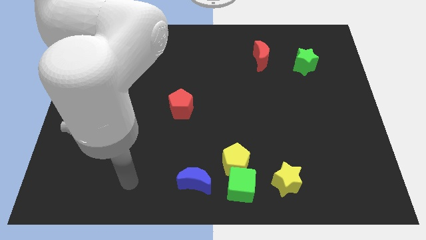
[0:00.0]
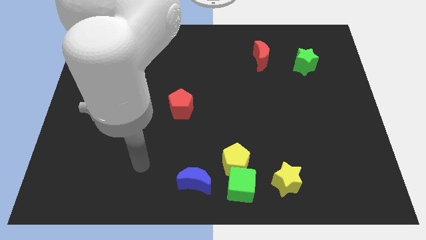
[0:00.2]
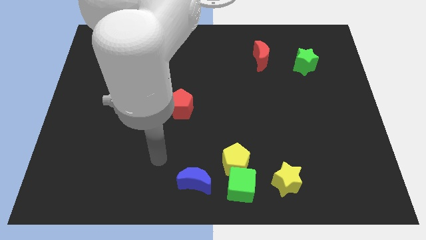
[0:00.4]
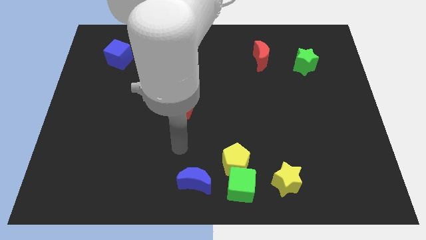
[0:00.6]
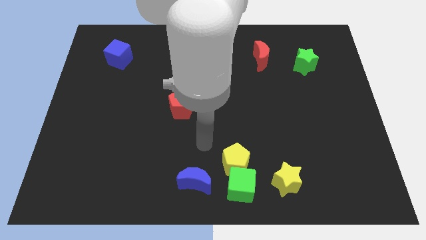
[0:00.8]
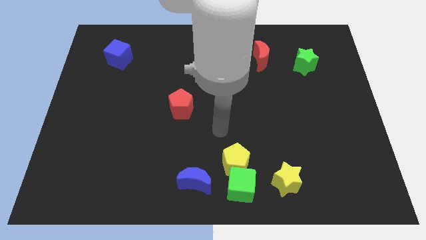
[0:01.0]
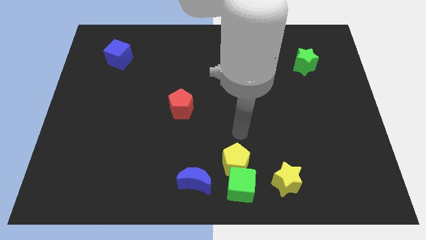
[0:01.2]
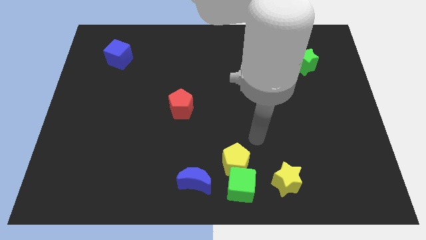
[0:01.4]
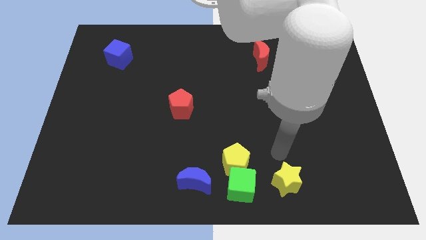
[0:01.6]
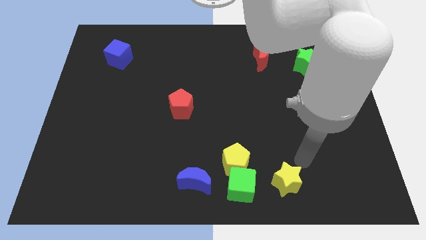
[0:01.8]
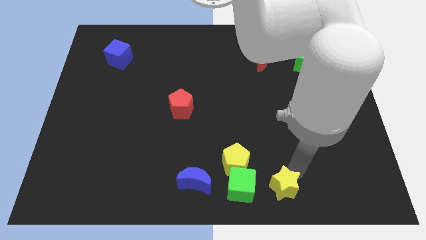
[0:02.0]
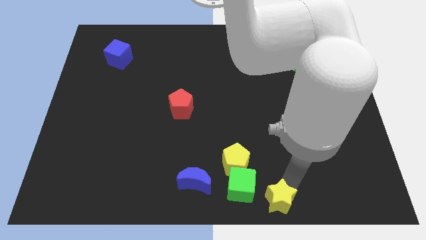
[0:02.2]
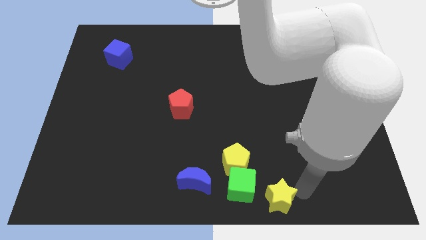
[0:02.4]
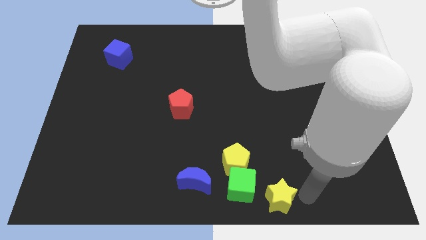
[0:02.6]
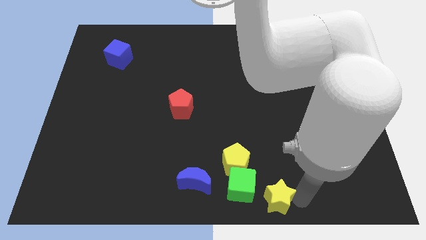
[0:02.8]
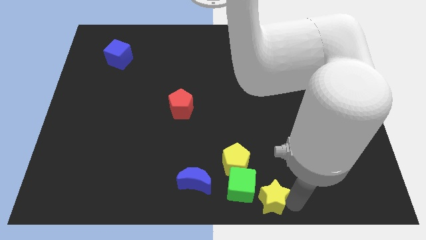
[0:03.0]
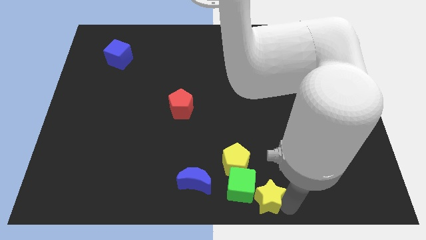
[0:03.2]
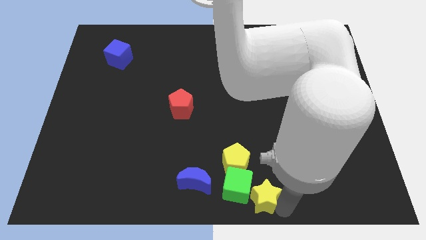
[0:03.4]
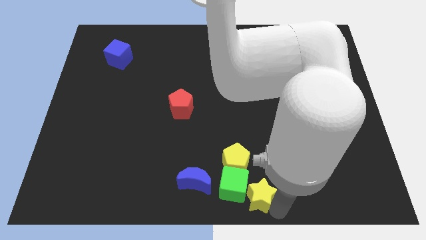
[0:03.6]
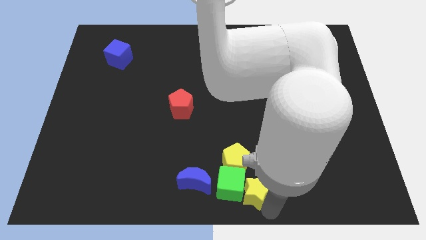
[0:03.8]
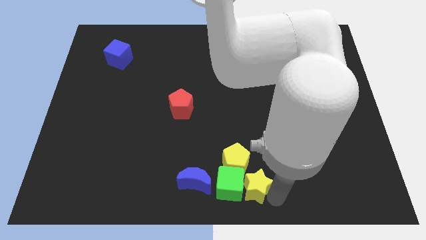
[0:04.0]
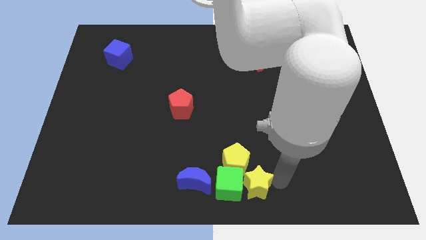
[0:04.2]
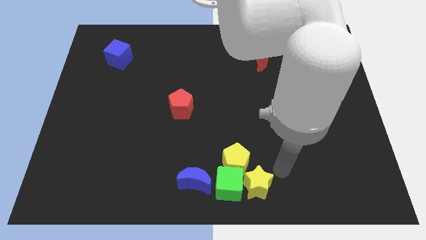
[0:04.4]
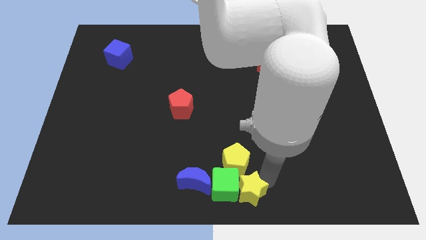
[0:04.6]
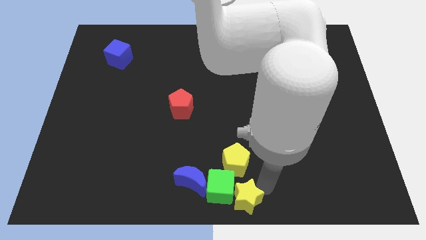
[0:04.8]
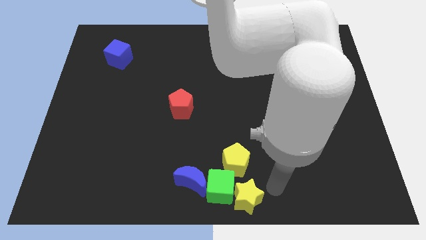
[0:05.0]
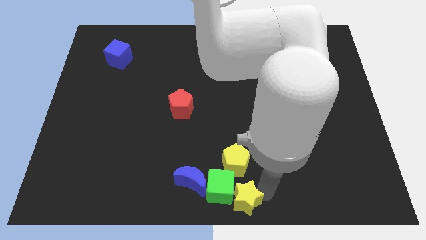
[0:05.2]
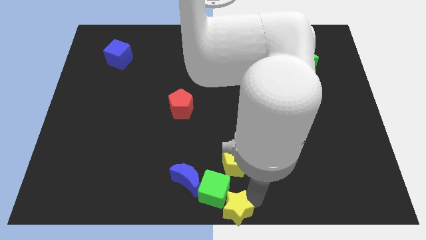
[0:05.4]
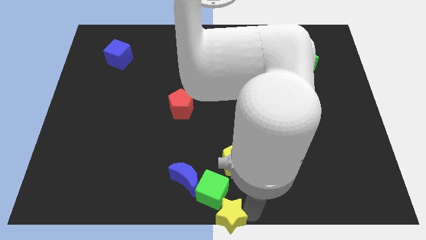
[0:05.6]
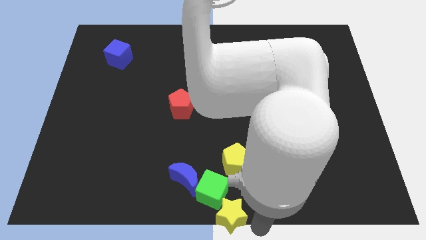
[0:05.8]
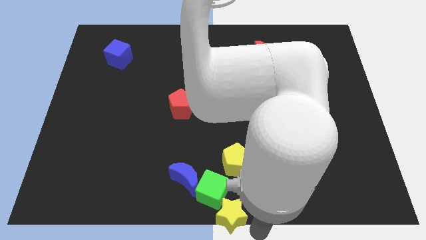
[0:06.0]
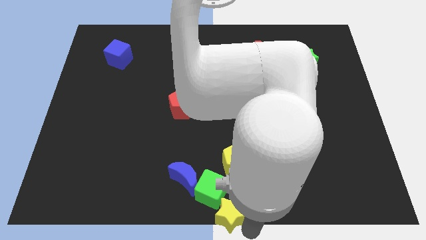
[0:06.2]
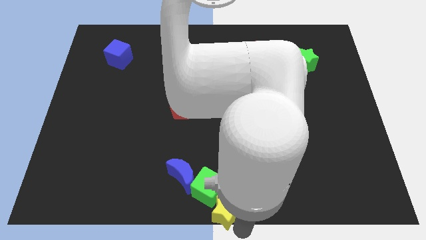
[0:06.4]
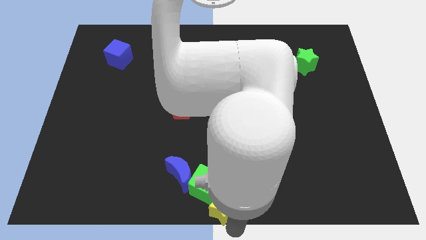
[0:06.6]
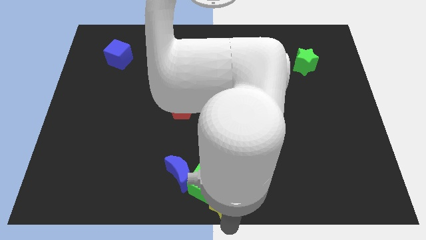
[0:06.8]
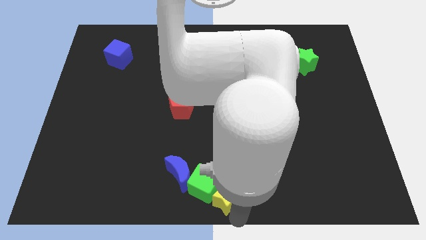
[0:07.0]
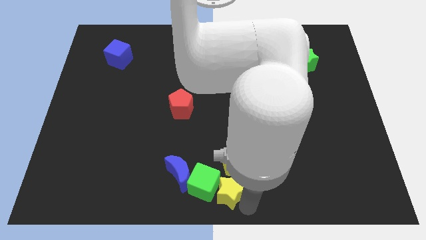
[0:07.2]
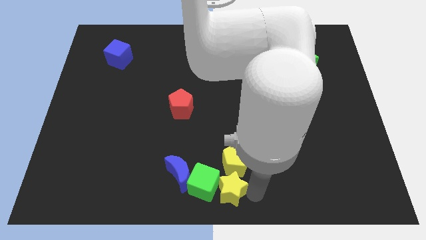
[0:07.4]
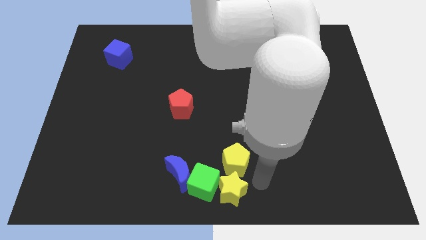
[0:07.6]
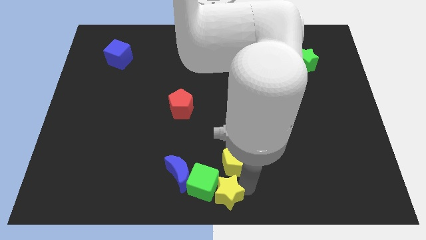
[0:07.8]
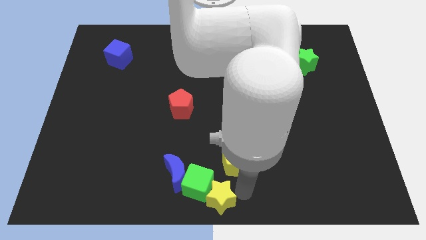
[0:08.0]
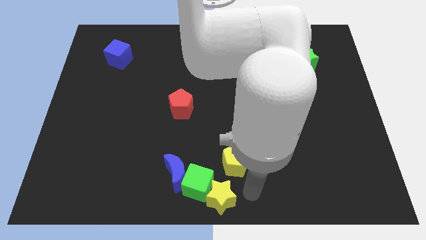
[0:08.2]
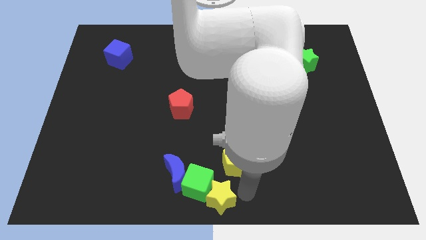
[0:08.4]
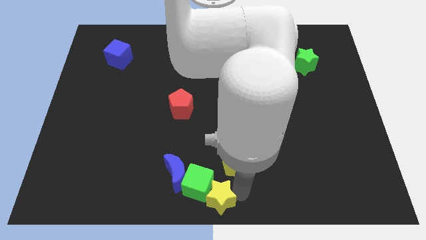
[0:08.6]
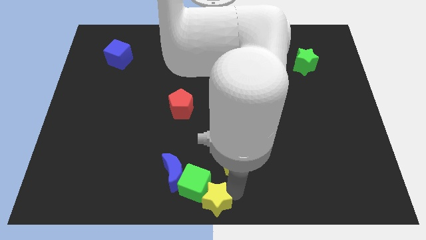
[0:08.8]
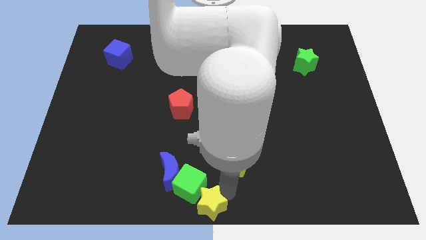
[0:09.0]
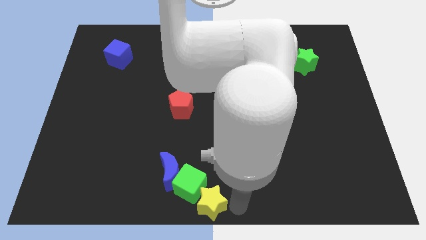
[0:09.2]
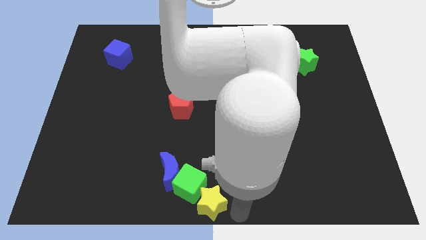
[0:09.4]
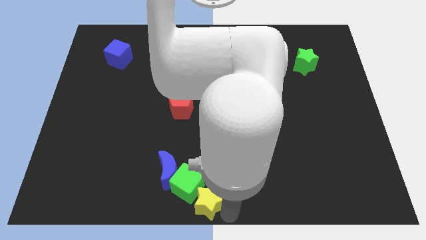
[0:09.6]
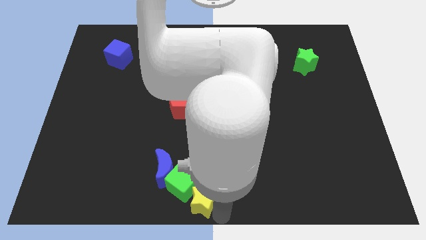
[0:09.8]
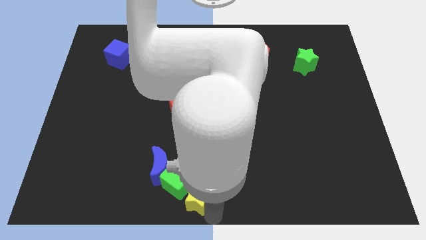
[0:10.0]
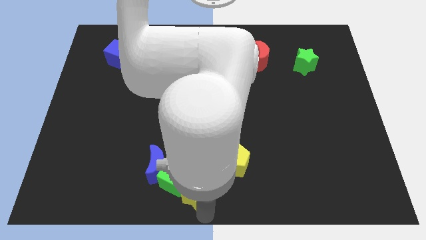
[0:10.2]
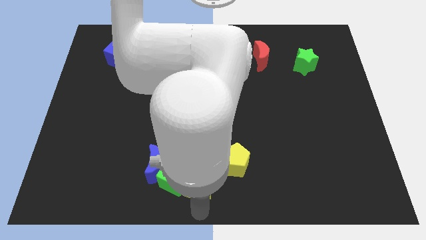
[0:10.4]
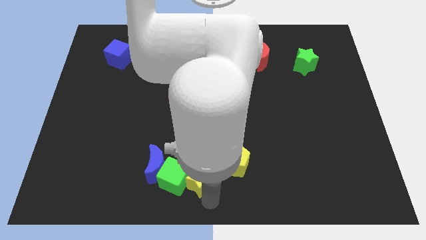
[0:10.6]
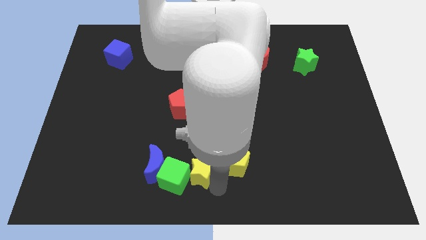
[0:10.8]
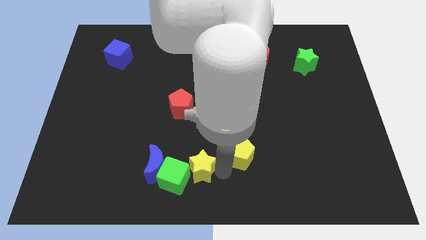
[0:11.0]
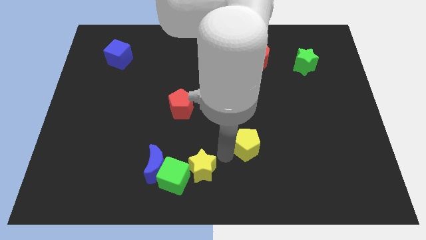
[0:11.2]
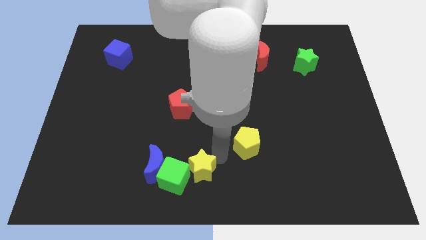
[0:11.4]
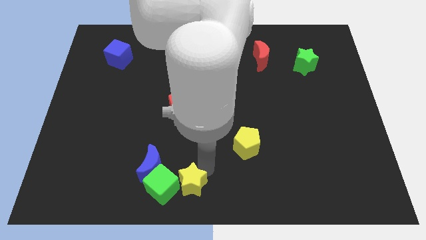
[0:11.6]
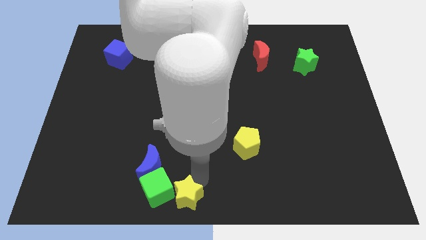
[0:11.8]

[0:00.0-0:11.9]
move the yellow star to the left

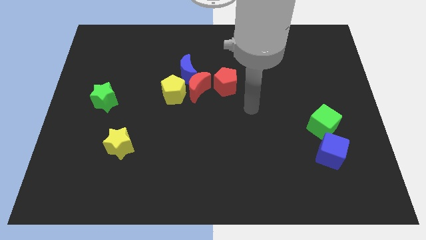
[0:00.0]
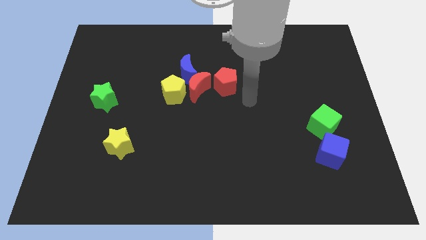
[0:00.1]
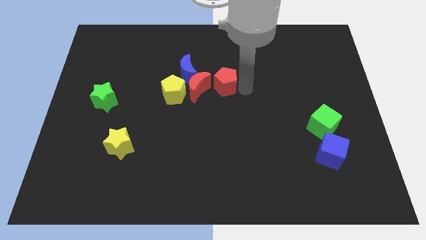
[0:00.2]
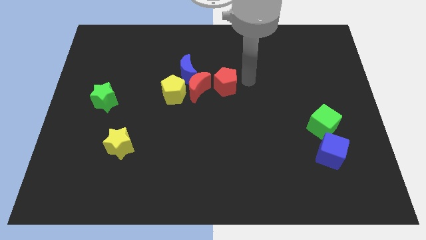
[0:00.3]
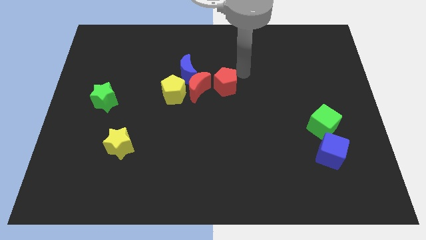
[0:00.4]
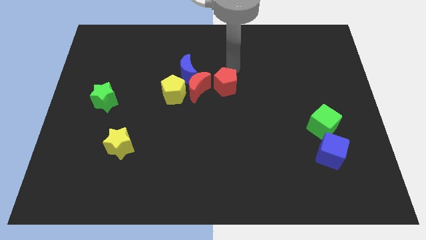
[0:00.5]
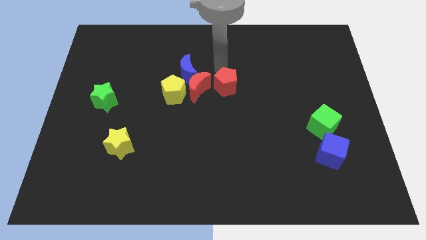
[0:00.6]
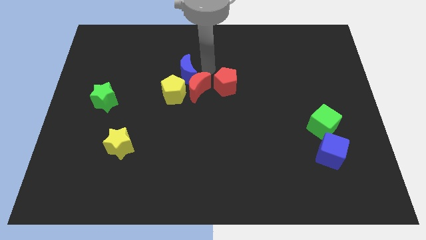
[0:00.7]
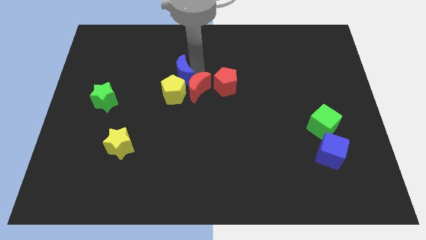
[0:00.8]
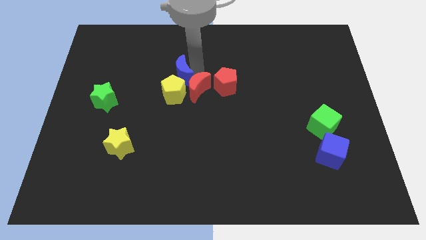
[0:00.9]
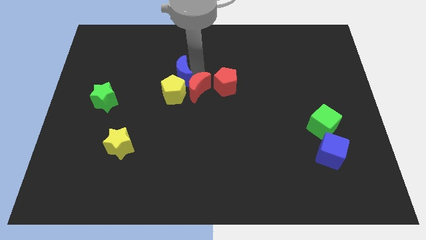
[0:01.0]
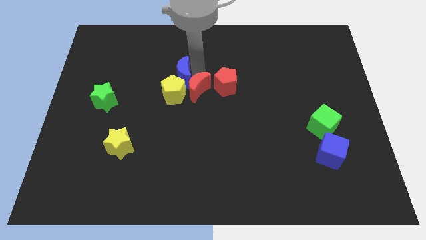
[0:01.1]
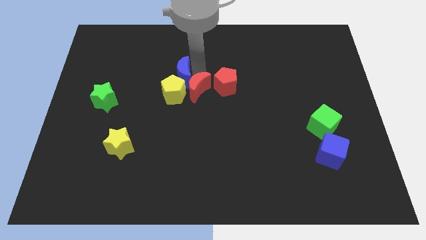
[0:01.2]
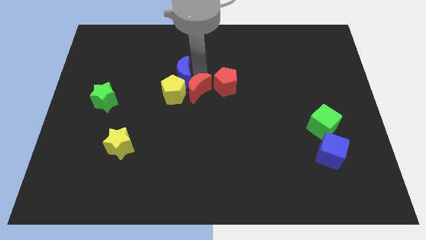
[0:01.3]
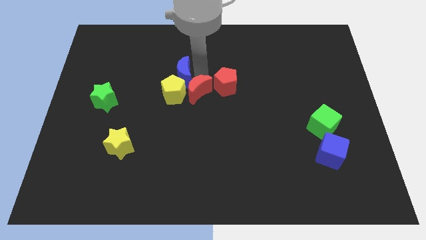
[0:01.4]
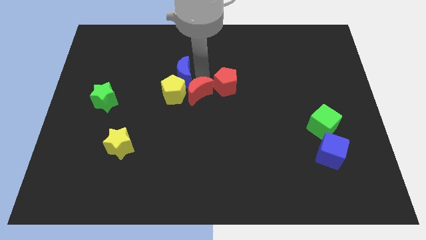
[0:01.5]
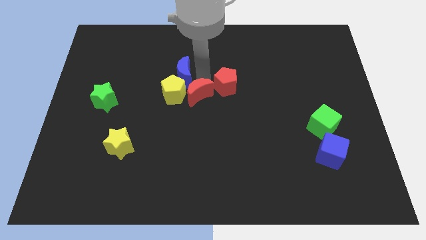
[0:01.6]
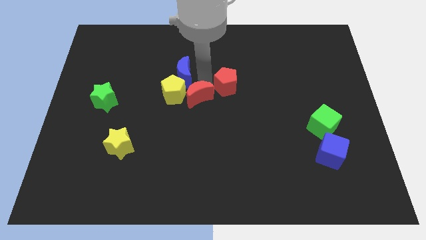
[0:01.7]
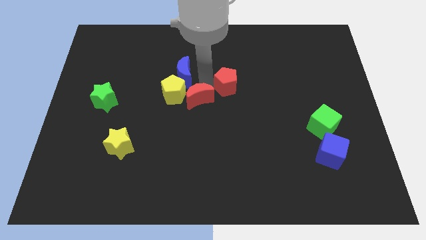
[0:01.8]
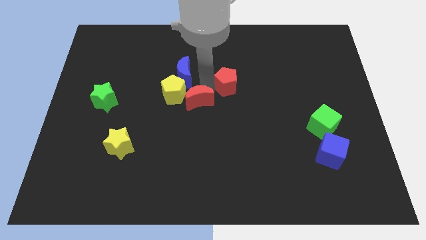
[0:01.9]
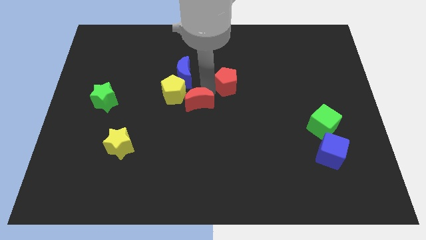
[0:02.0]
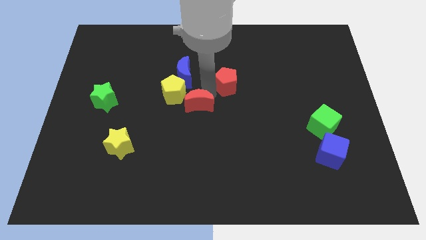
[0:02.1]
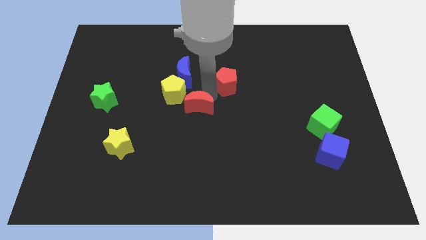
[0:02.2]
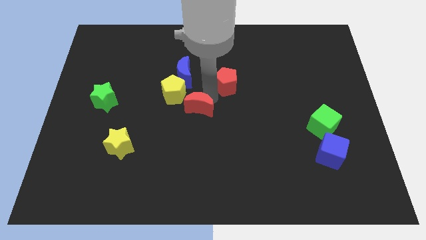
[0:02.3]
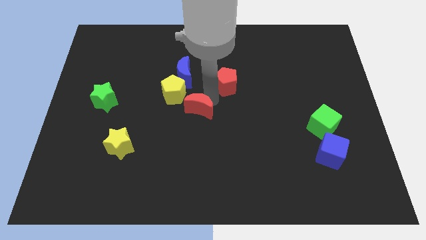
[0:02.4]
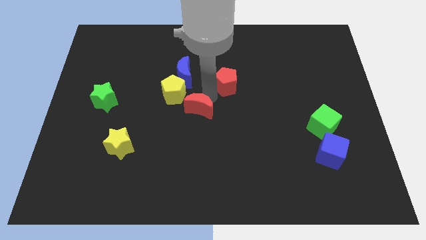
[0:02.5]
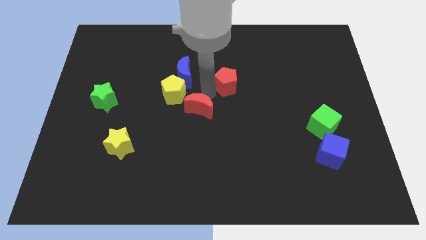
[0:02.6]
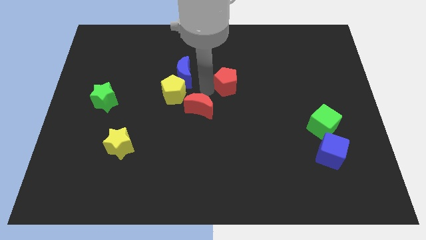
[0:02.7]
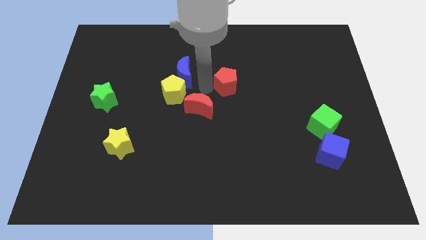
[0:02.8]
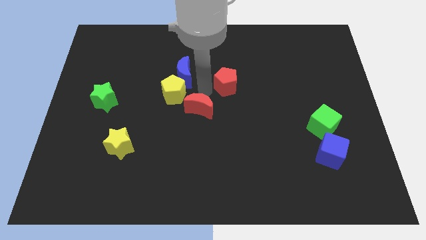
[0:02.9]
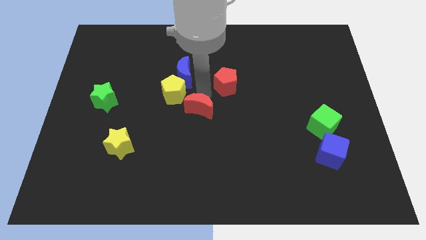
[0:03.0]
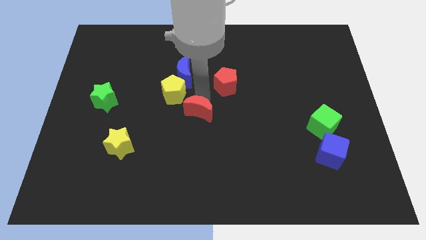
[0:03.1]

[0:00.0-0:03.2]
slightly move the red moon downwards
